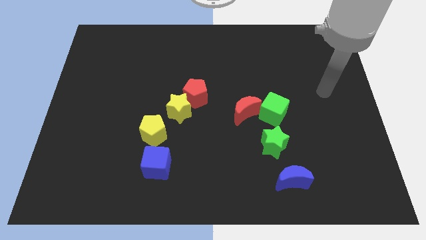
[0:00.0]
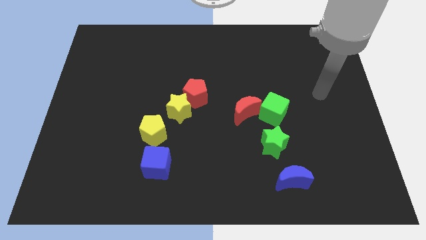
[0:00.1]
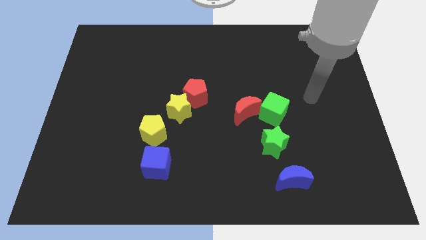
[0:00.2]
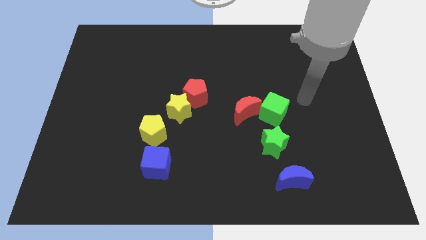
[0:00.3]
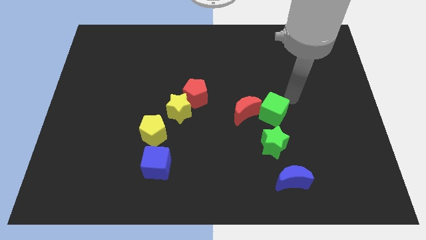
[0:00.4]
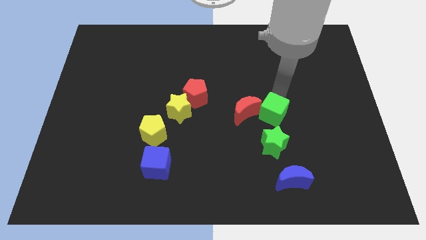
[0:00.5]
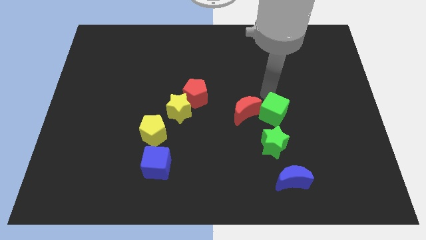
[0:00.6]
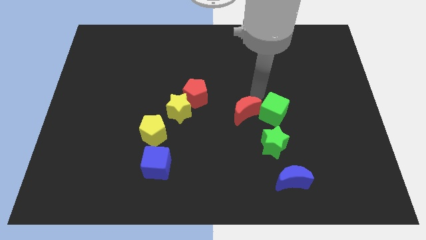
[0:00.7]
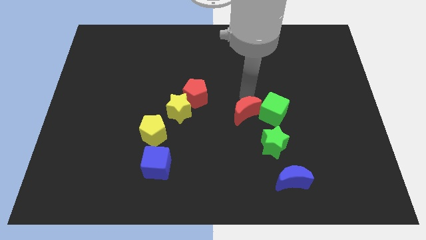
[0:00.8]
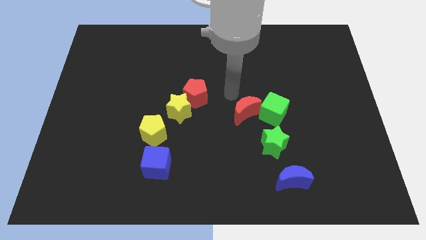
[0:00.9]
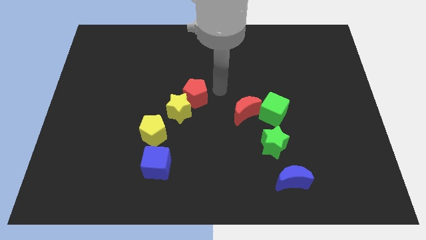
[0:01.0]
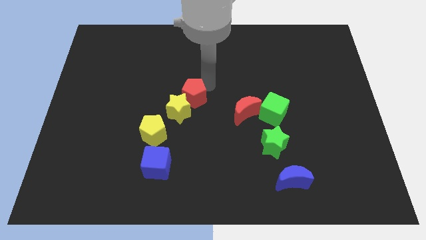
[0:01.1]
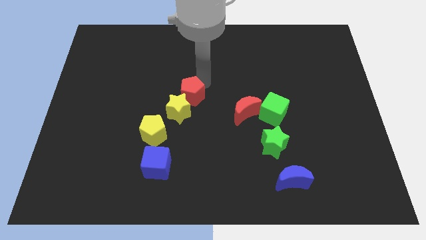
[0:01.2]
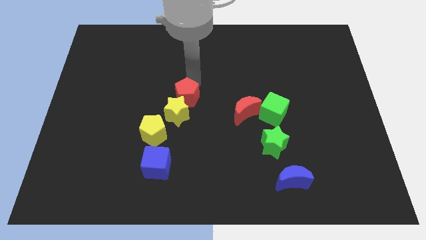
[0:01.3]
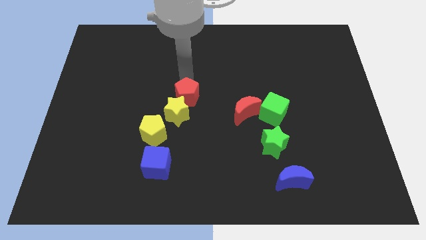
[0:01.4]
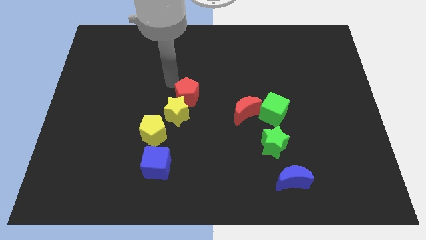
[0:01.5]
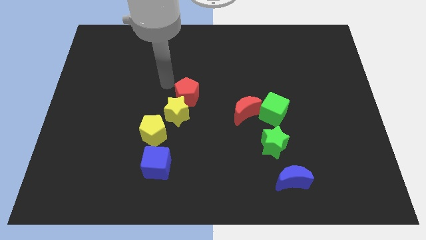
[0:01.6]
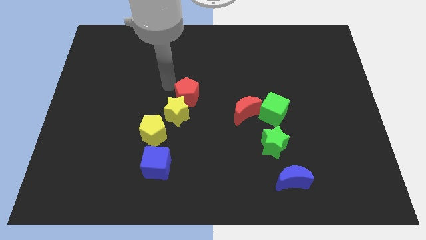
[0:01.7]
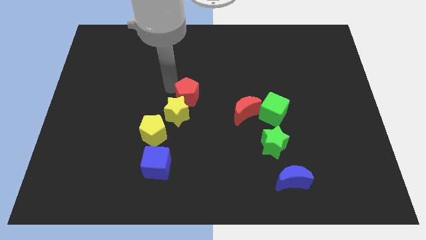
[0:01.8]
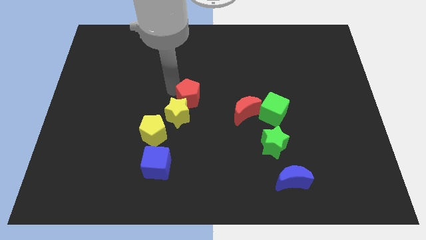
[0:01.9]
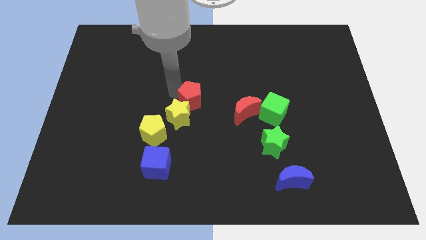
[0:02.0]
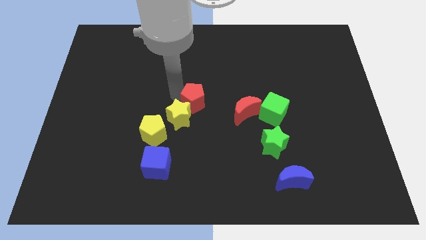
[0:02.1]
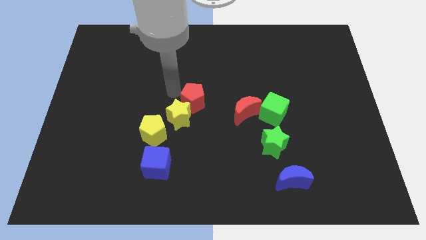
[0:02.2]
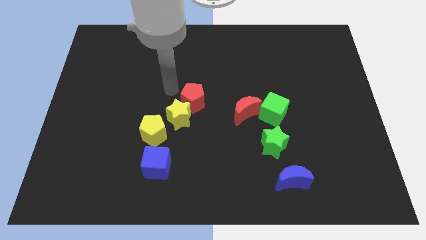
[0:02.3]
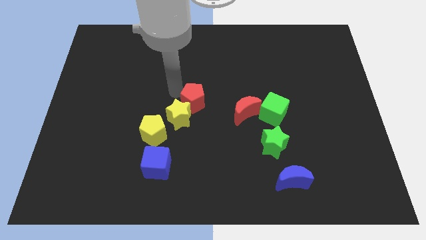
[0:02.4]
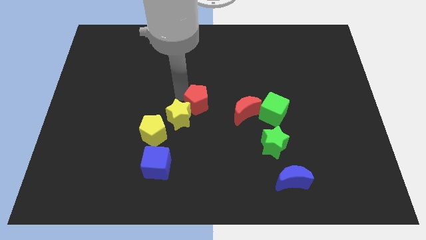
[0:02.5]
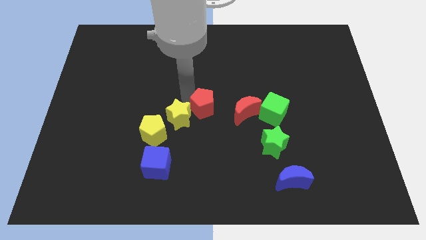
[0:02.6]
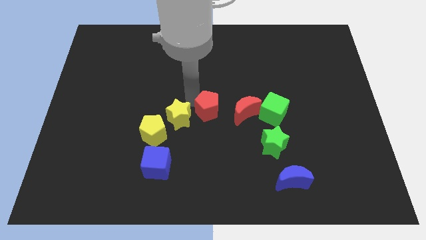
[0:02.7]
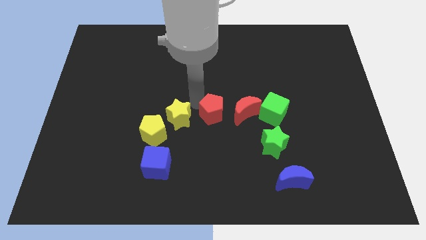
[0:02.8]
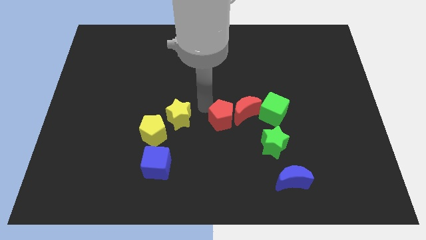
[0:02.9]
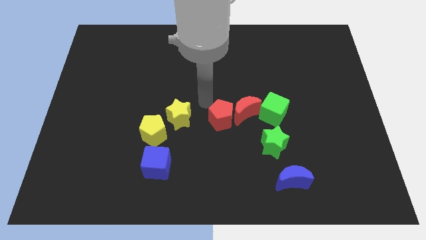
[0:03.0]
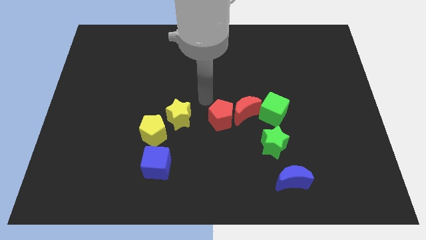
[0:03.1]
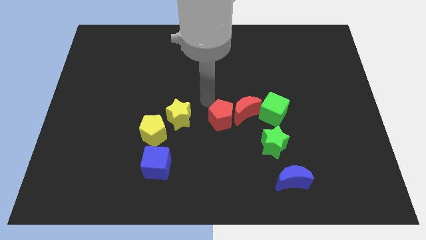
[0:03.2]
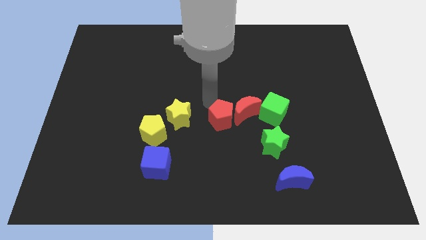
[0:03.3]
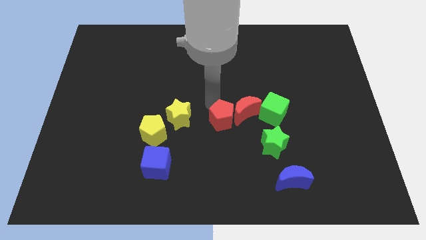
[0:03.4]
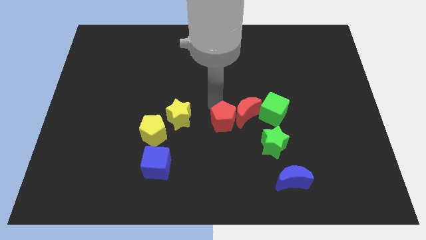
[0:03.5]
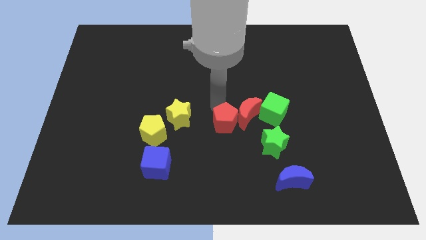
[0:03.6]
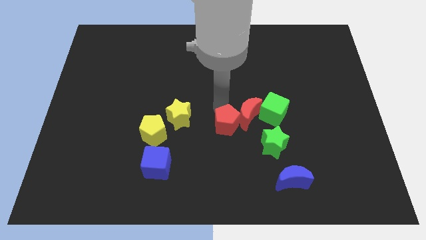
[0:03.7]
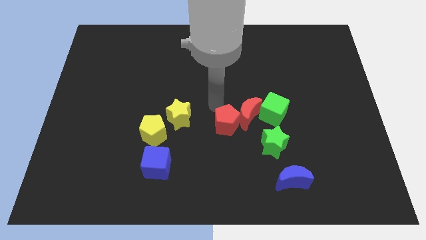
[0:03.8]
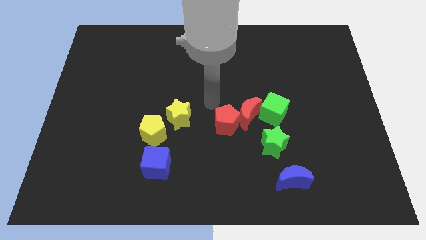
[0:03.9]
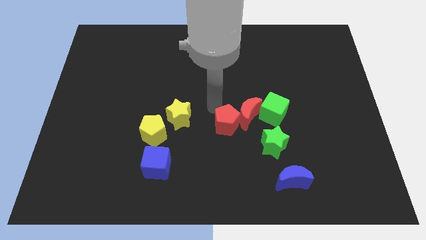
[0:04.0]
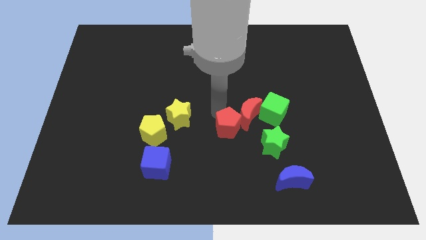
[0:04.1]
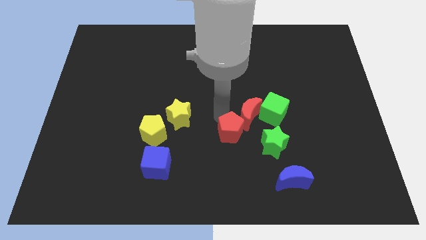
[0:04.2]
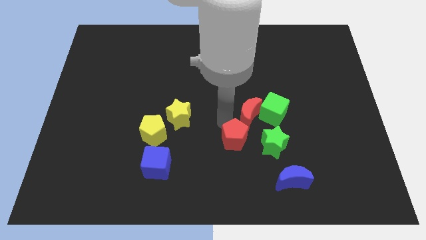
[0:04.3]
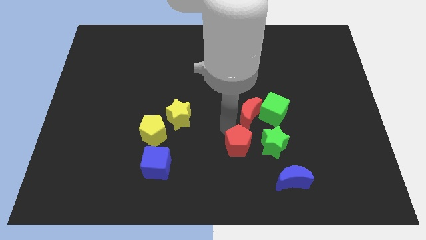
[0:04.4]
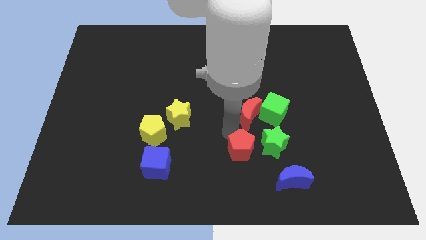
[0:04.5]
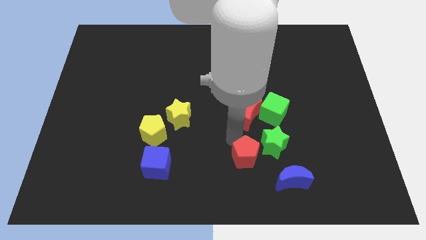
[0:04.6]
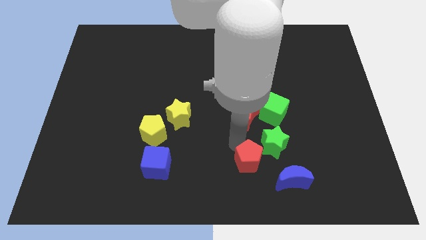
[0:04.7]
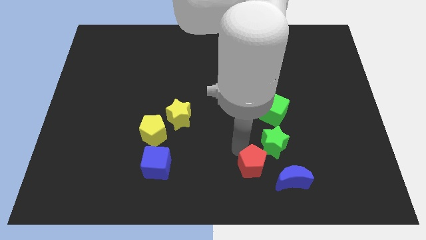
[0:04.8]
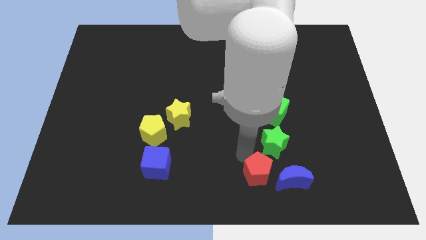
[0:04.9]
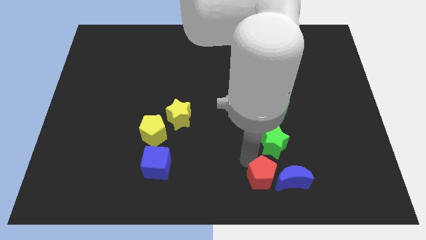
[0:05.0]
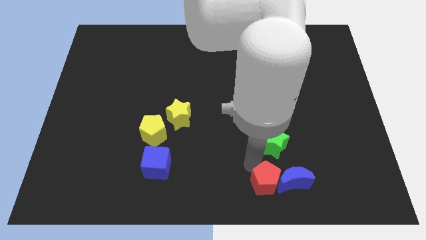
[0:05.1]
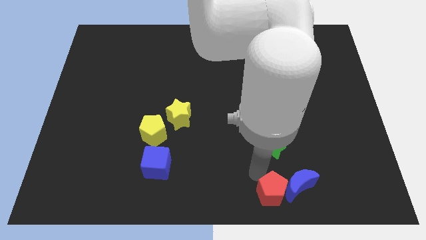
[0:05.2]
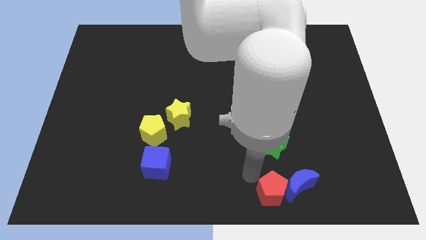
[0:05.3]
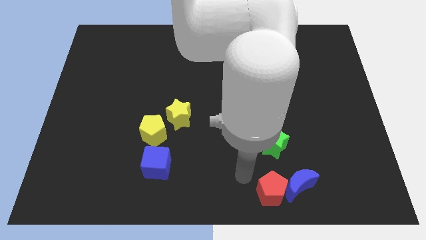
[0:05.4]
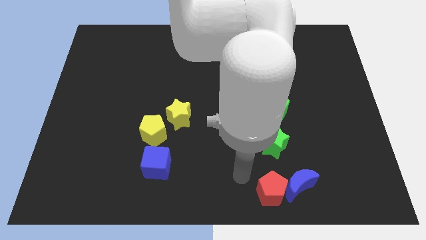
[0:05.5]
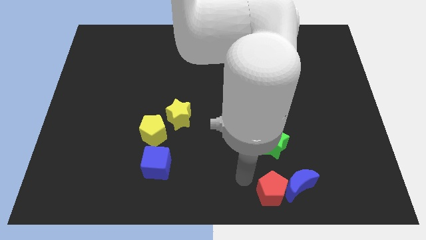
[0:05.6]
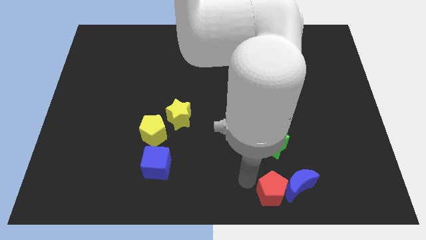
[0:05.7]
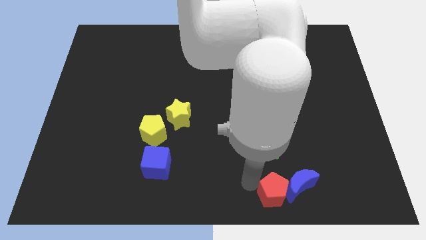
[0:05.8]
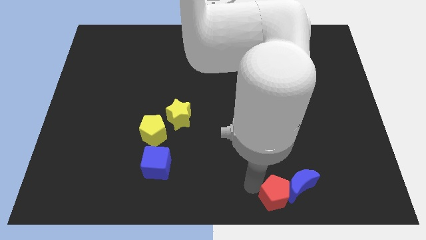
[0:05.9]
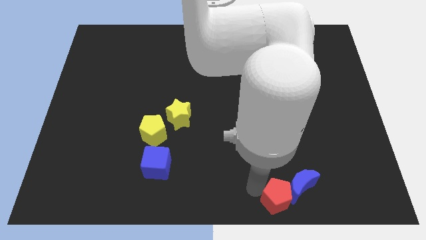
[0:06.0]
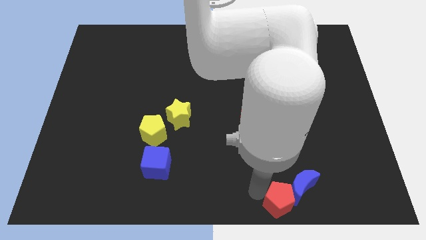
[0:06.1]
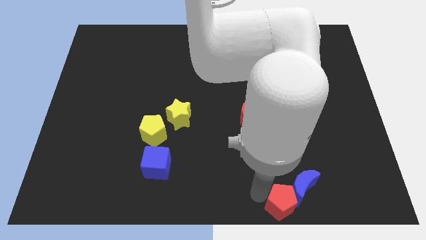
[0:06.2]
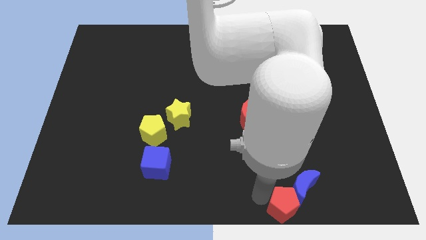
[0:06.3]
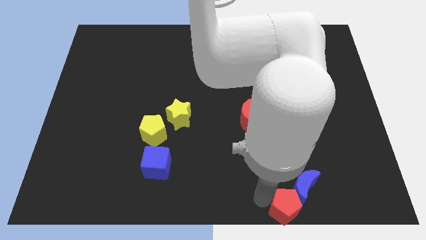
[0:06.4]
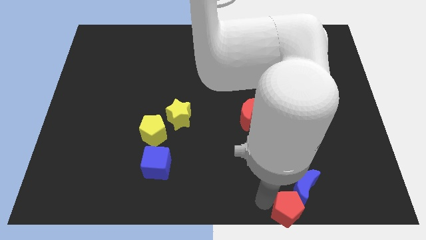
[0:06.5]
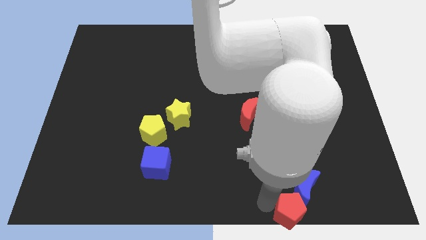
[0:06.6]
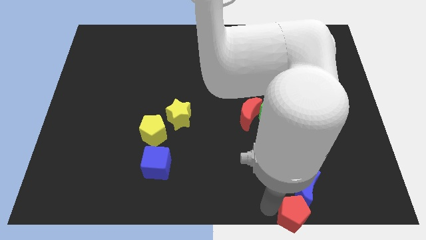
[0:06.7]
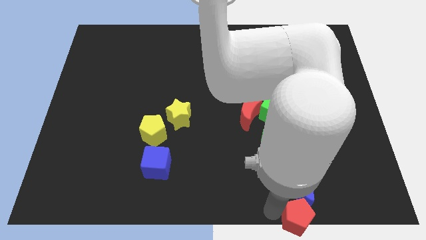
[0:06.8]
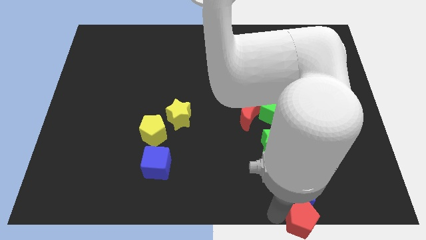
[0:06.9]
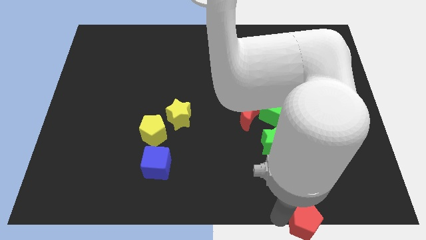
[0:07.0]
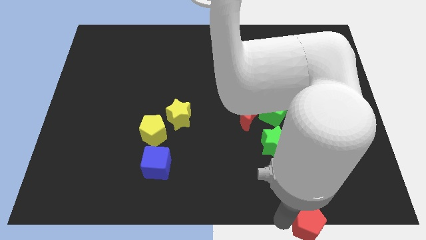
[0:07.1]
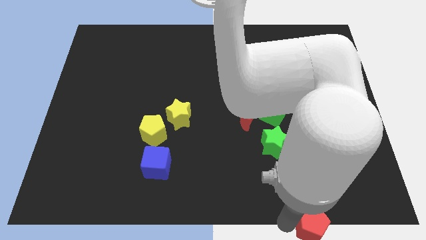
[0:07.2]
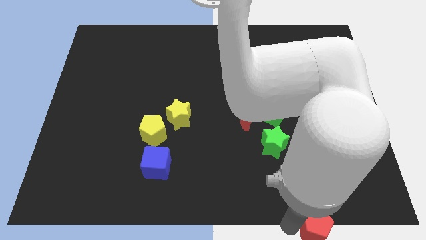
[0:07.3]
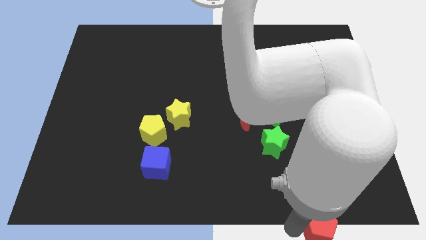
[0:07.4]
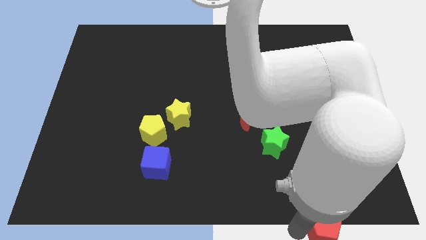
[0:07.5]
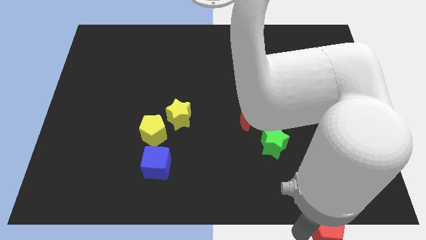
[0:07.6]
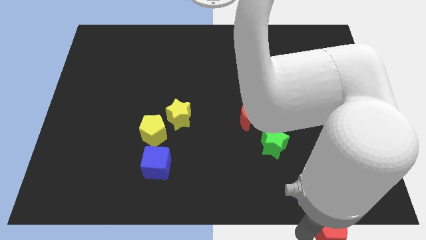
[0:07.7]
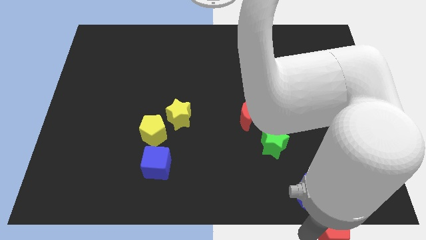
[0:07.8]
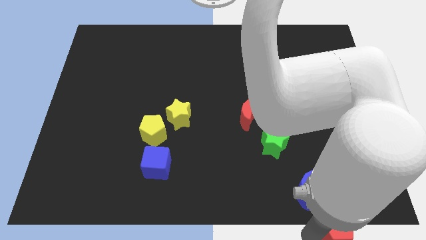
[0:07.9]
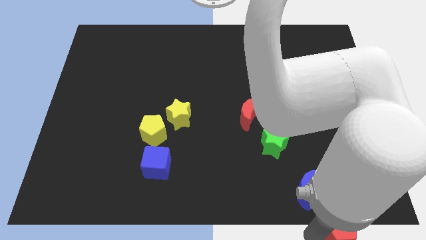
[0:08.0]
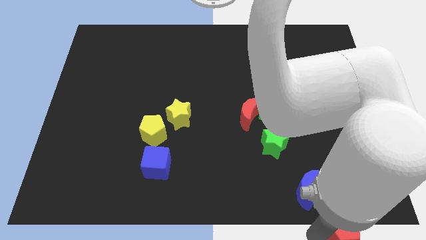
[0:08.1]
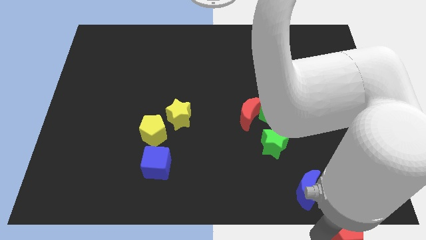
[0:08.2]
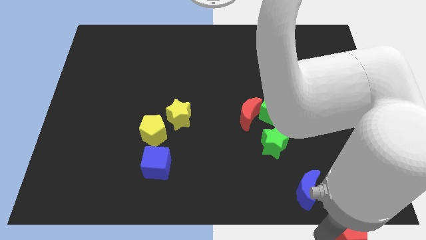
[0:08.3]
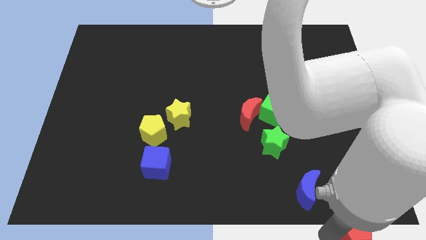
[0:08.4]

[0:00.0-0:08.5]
push the red pentagon to the bottom right corner
